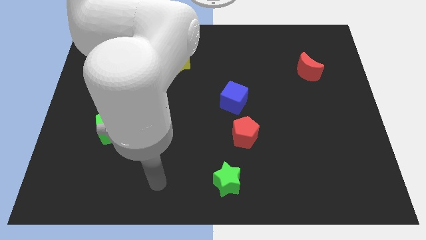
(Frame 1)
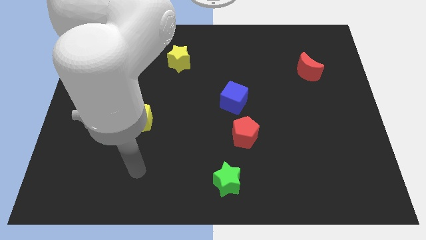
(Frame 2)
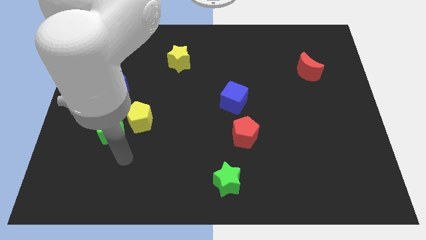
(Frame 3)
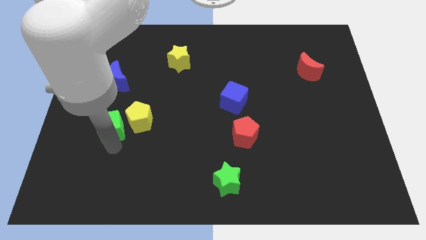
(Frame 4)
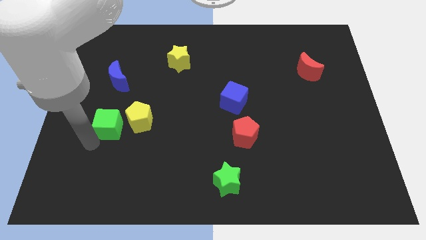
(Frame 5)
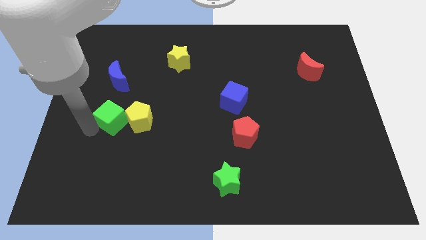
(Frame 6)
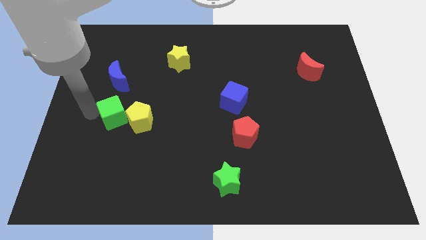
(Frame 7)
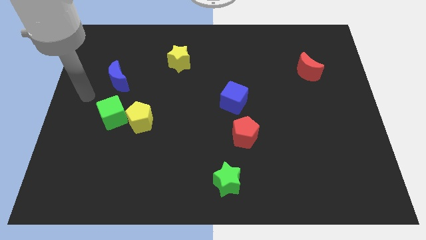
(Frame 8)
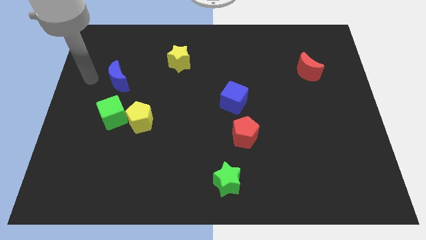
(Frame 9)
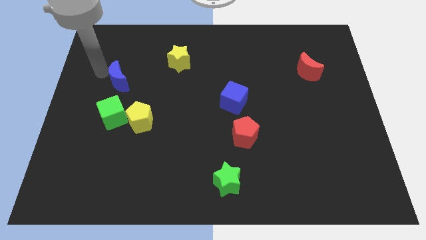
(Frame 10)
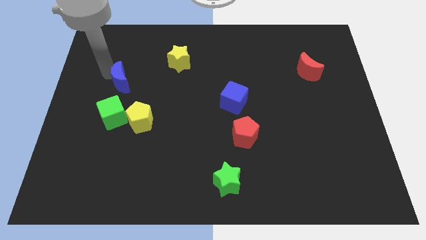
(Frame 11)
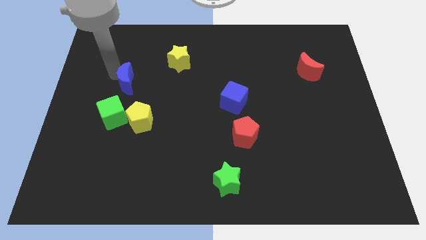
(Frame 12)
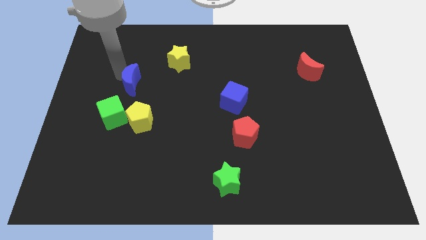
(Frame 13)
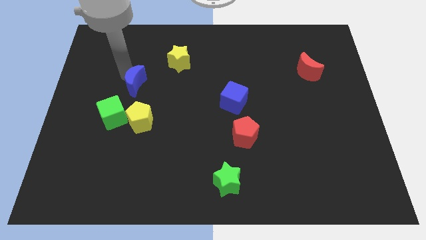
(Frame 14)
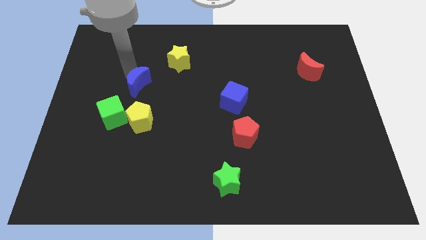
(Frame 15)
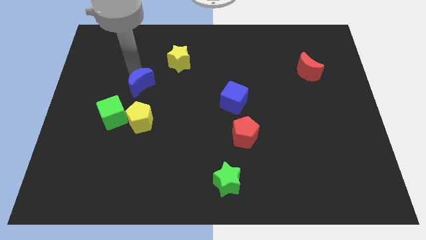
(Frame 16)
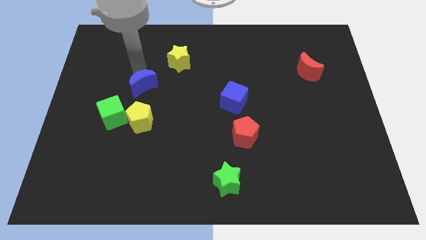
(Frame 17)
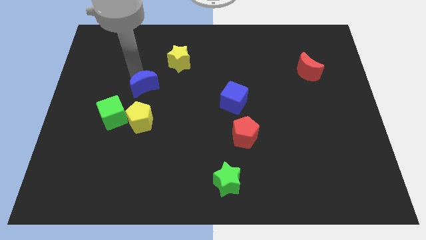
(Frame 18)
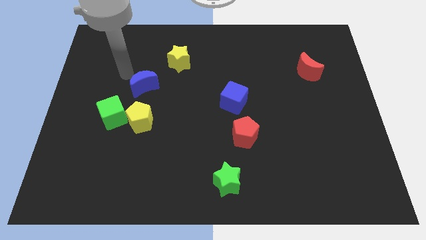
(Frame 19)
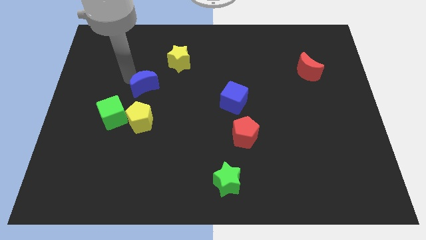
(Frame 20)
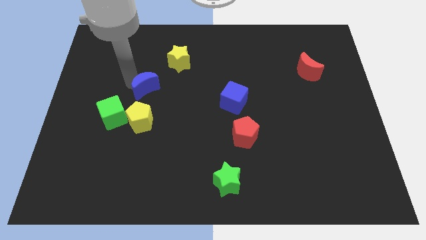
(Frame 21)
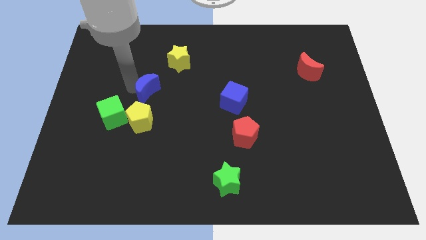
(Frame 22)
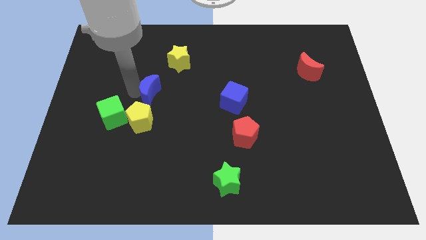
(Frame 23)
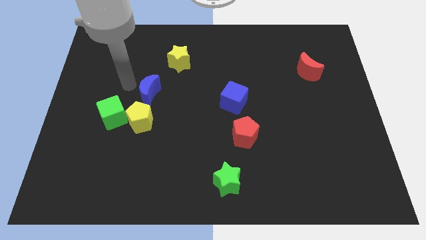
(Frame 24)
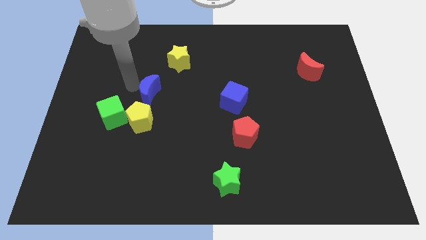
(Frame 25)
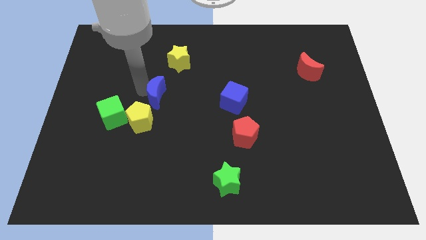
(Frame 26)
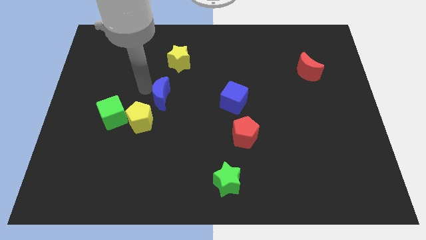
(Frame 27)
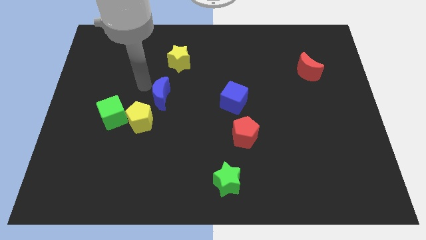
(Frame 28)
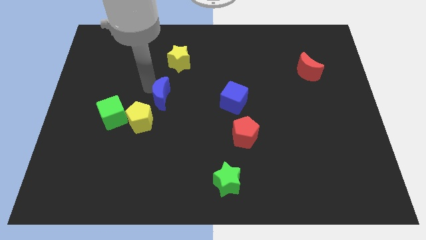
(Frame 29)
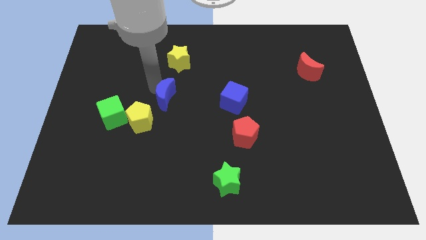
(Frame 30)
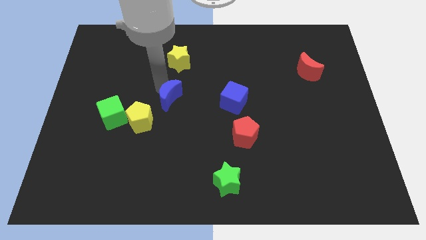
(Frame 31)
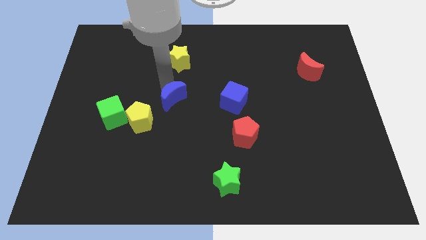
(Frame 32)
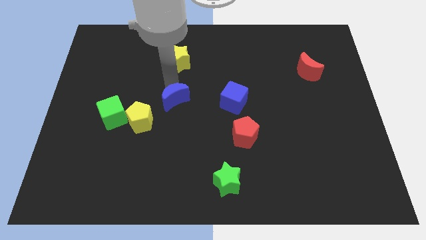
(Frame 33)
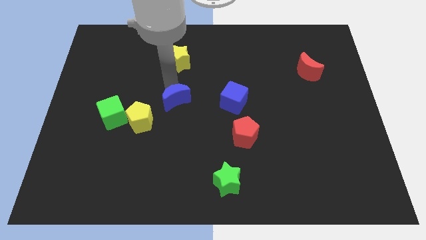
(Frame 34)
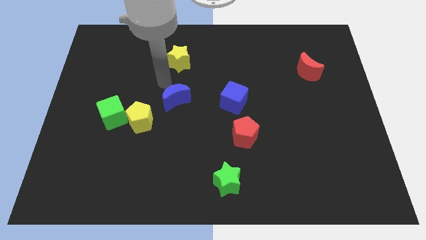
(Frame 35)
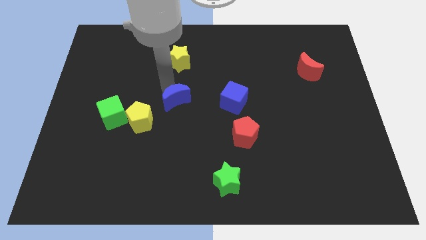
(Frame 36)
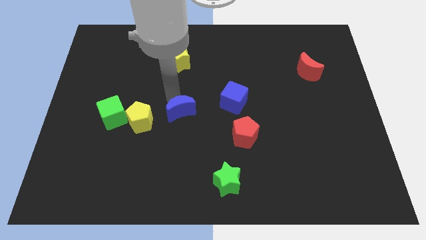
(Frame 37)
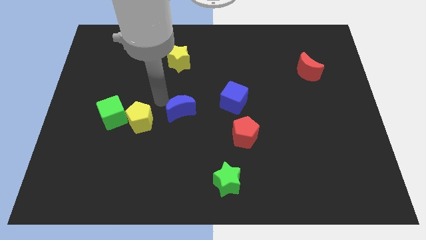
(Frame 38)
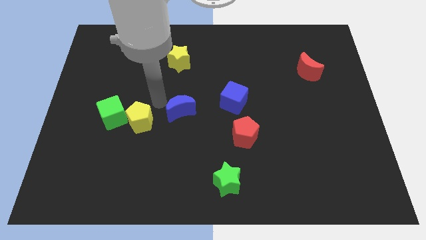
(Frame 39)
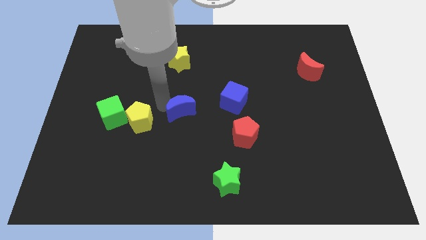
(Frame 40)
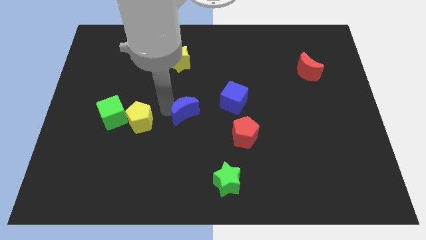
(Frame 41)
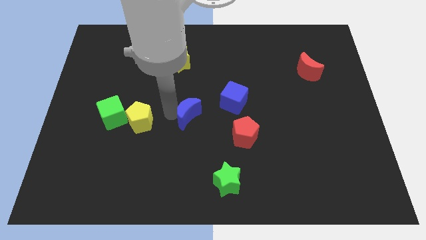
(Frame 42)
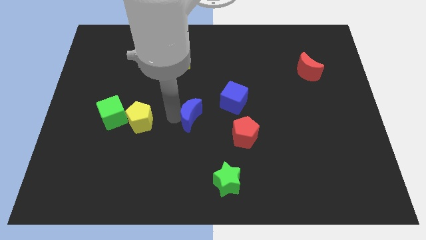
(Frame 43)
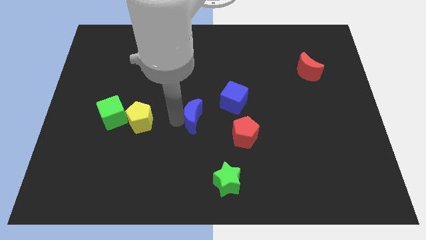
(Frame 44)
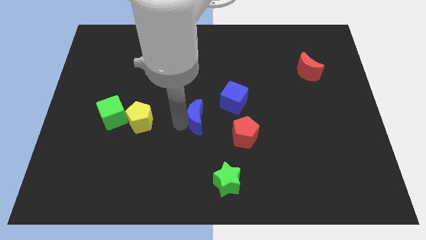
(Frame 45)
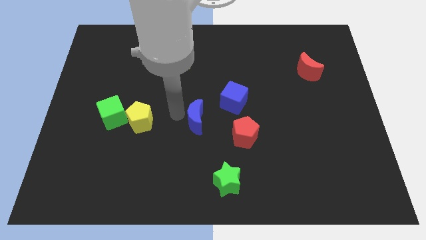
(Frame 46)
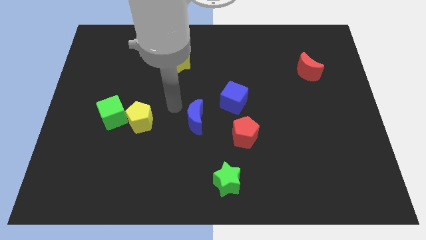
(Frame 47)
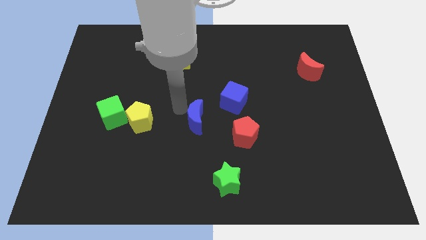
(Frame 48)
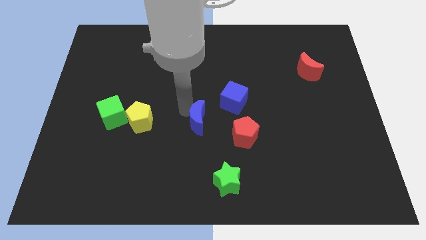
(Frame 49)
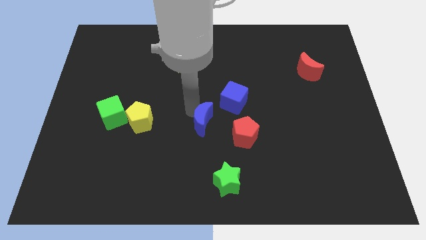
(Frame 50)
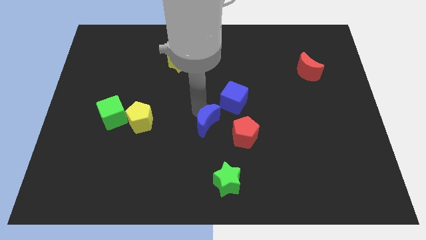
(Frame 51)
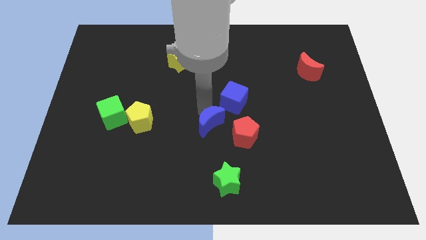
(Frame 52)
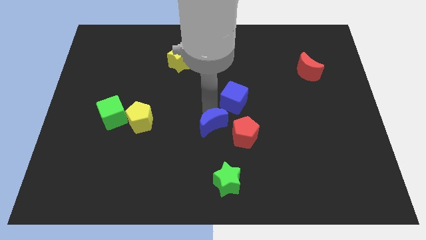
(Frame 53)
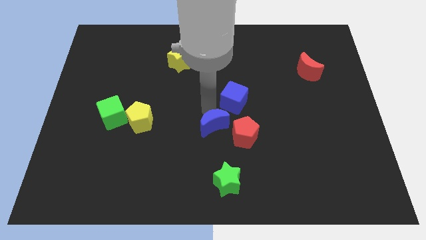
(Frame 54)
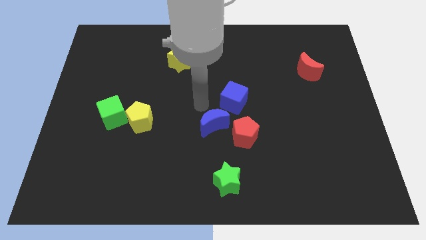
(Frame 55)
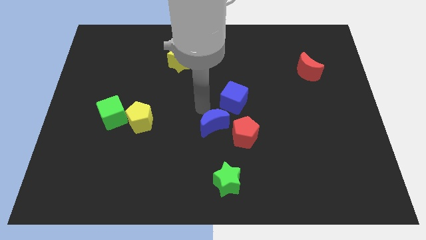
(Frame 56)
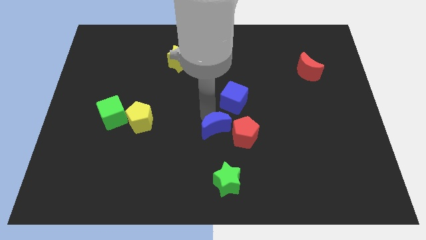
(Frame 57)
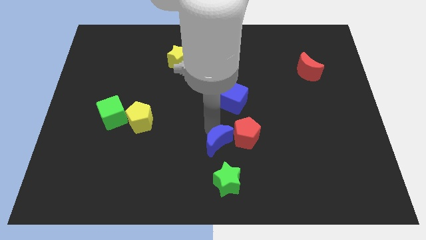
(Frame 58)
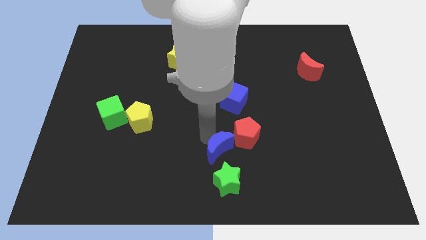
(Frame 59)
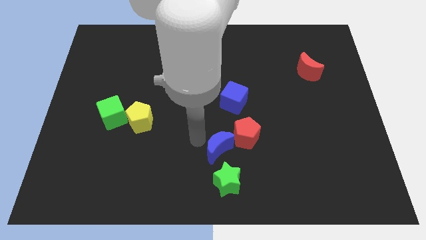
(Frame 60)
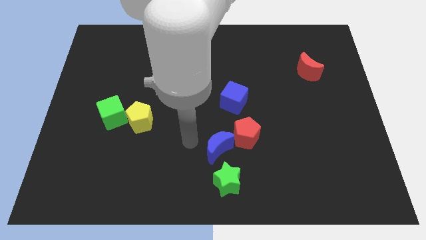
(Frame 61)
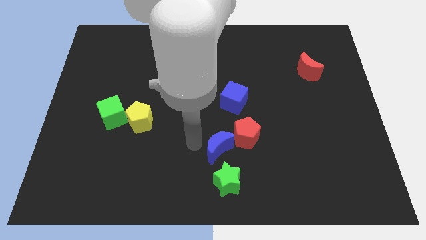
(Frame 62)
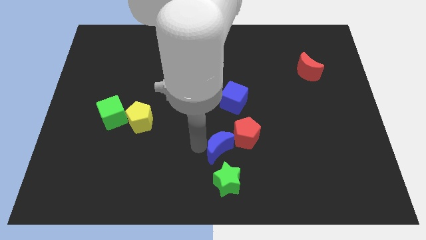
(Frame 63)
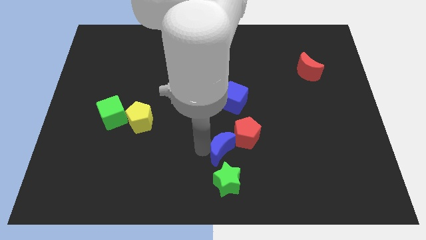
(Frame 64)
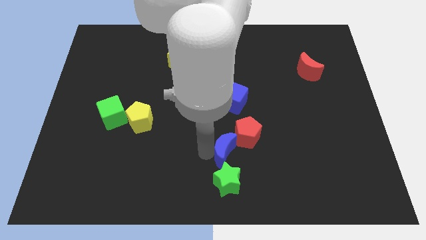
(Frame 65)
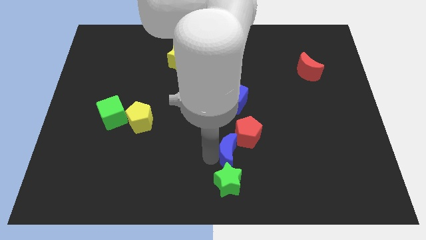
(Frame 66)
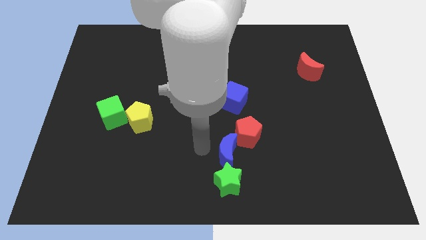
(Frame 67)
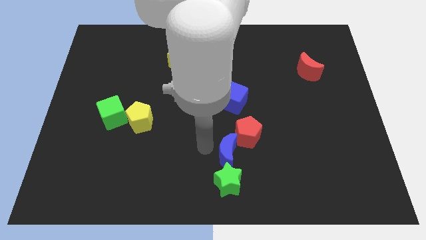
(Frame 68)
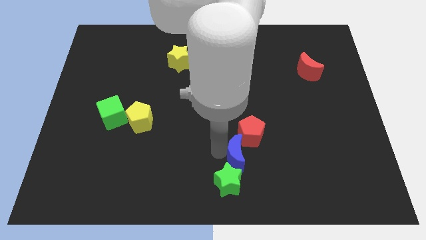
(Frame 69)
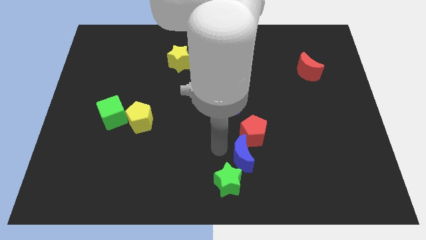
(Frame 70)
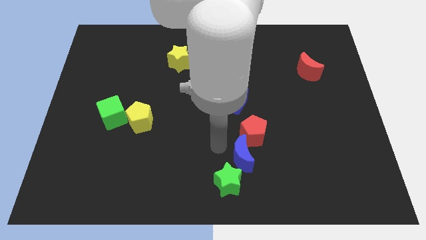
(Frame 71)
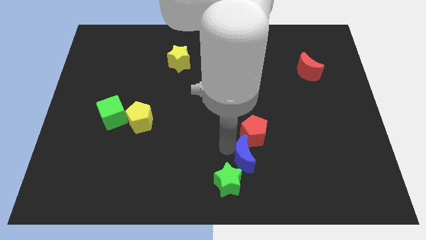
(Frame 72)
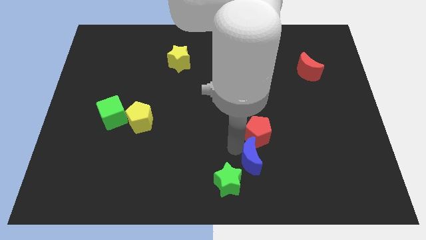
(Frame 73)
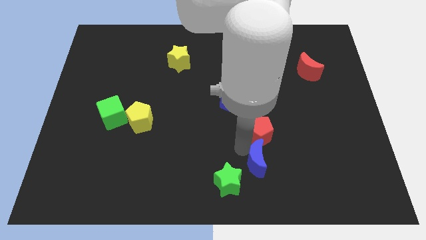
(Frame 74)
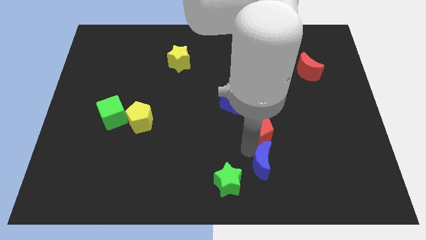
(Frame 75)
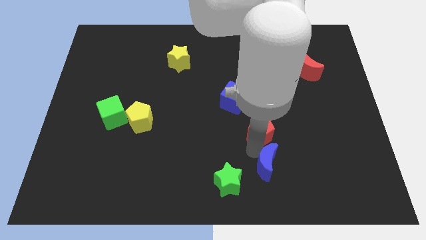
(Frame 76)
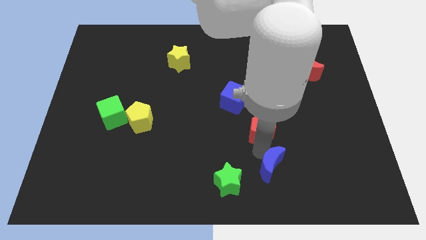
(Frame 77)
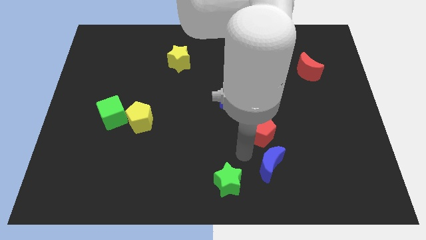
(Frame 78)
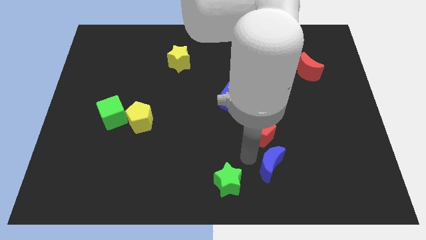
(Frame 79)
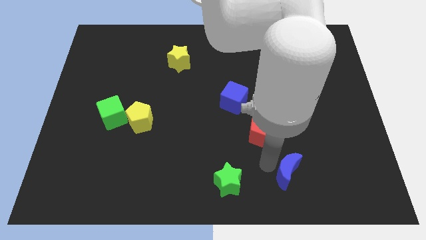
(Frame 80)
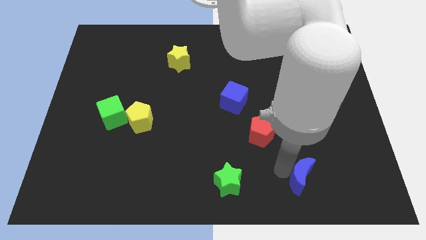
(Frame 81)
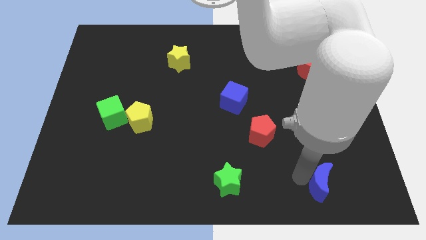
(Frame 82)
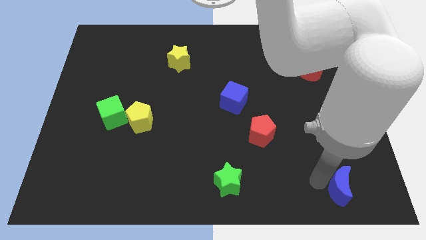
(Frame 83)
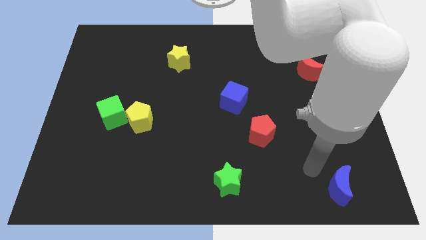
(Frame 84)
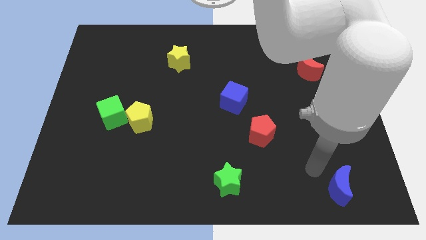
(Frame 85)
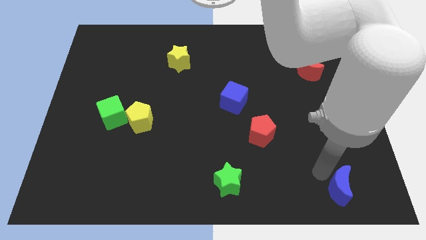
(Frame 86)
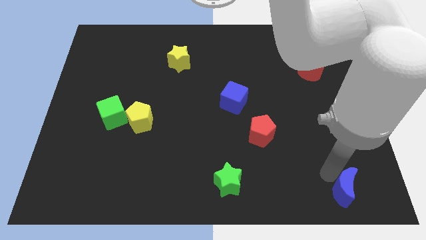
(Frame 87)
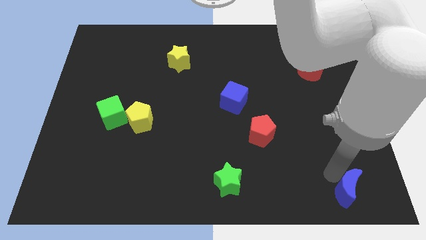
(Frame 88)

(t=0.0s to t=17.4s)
move the blue moon to the lower right corner
